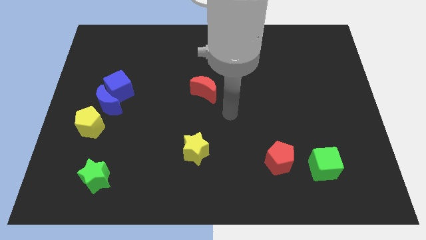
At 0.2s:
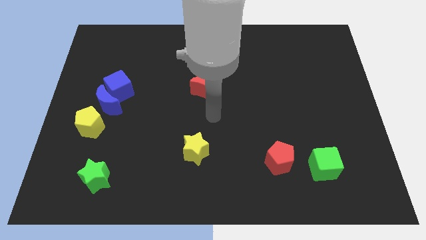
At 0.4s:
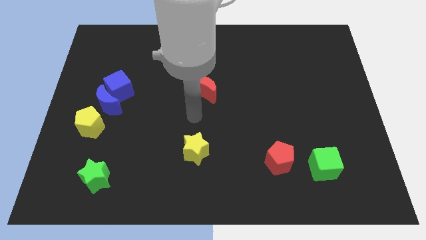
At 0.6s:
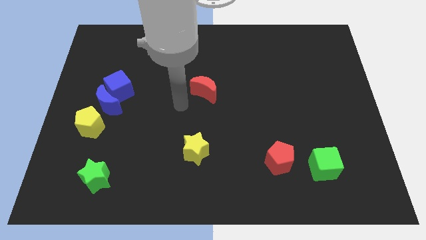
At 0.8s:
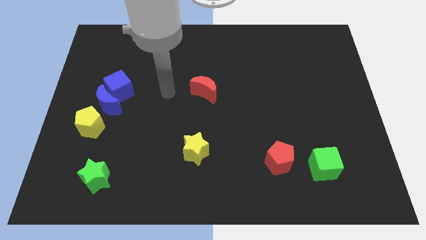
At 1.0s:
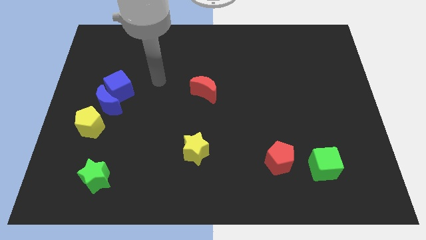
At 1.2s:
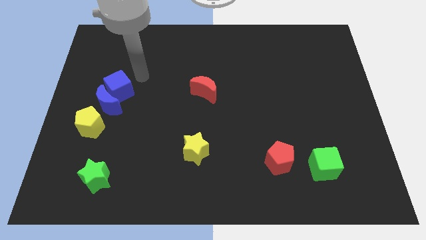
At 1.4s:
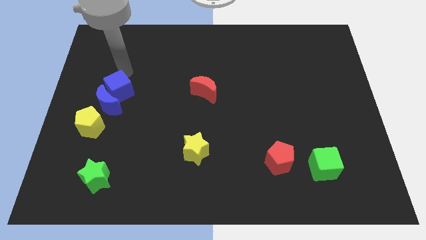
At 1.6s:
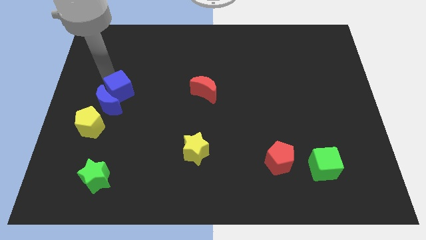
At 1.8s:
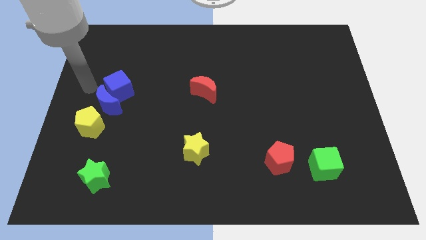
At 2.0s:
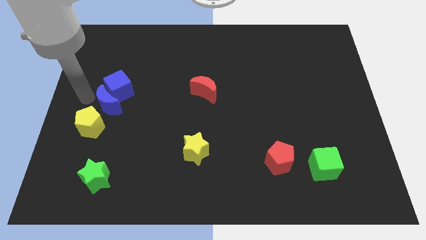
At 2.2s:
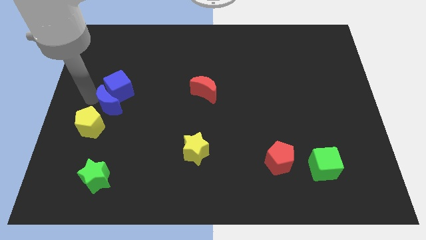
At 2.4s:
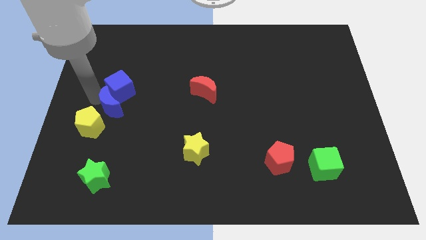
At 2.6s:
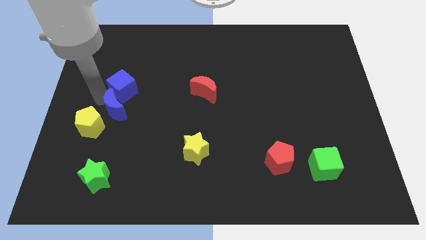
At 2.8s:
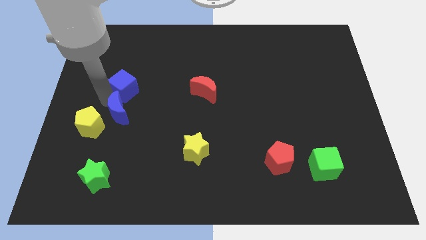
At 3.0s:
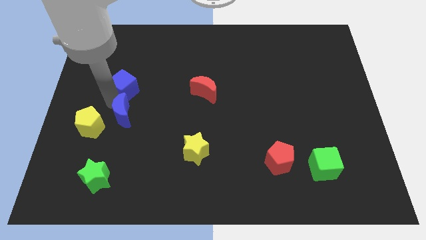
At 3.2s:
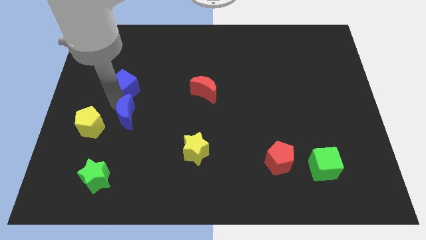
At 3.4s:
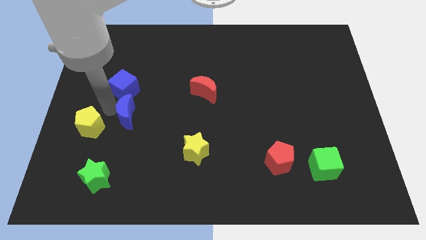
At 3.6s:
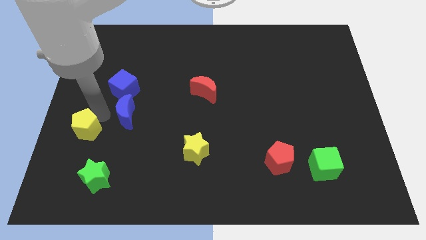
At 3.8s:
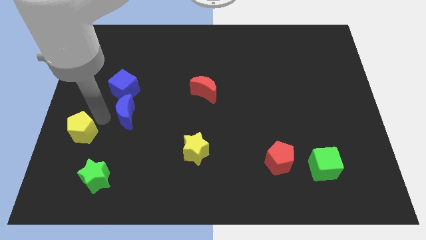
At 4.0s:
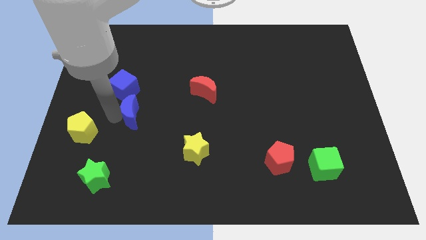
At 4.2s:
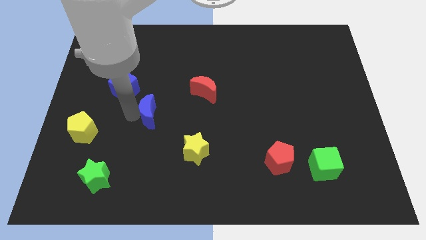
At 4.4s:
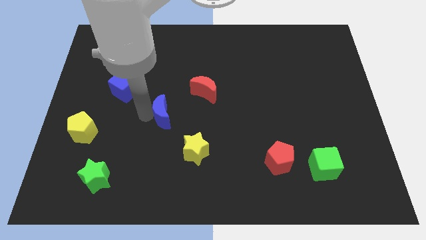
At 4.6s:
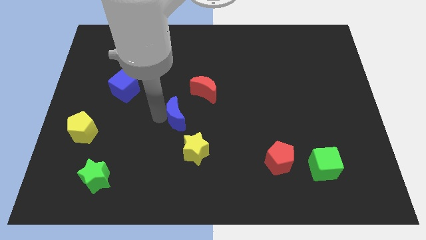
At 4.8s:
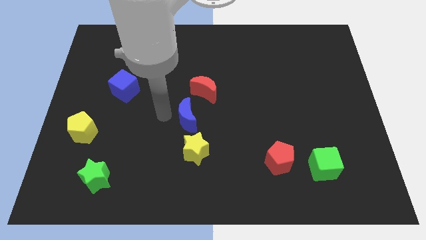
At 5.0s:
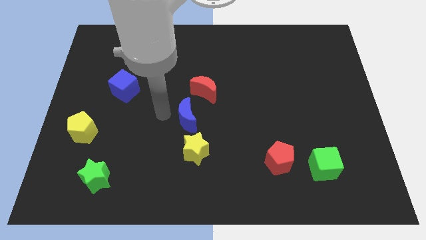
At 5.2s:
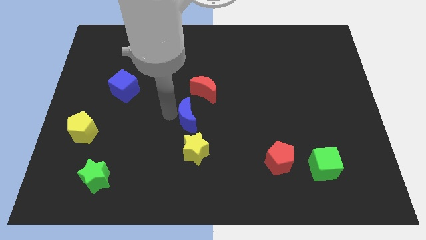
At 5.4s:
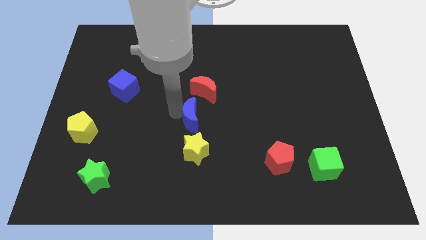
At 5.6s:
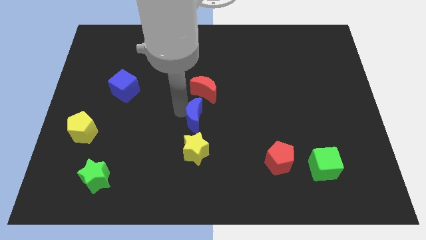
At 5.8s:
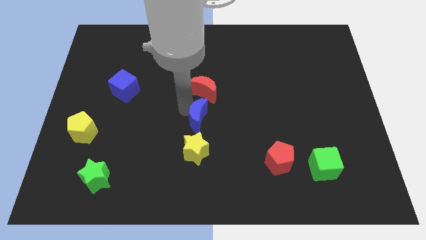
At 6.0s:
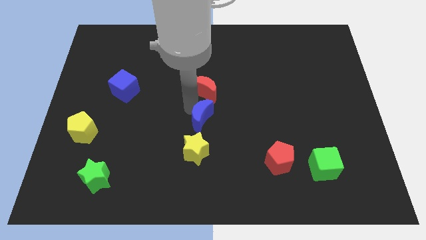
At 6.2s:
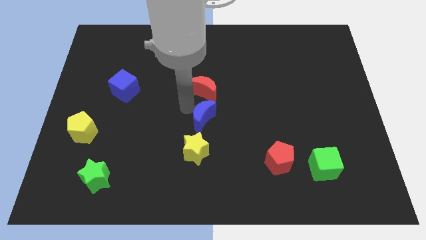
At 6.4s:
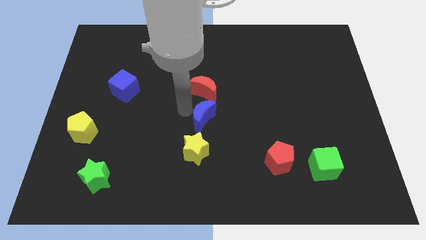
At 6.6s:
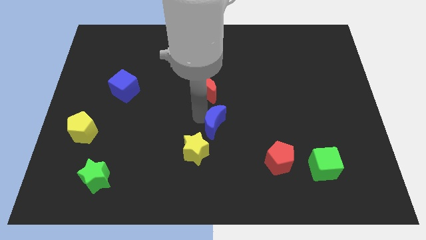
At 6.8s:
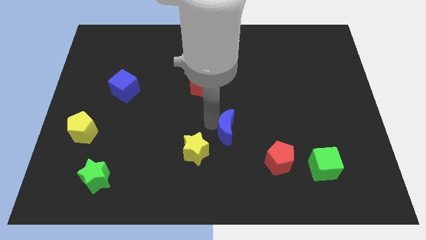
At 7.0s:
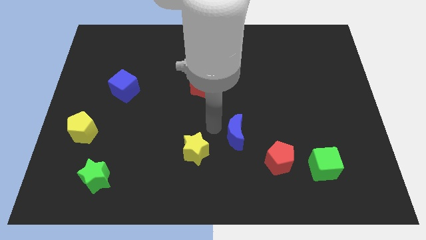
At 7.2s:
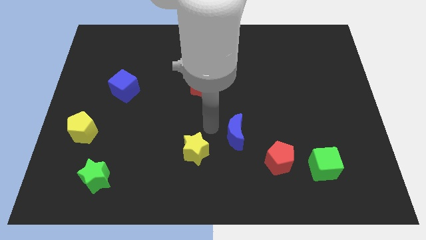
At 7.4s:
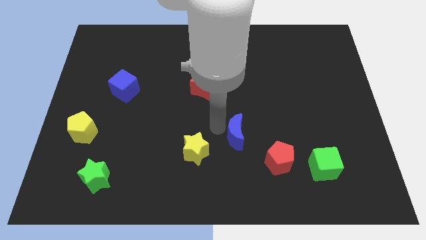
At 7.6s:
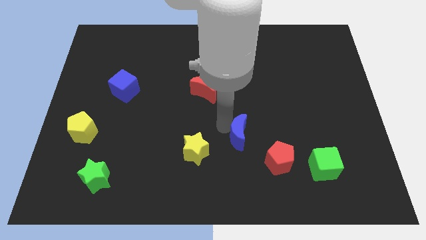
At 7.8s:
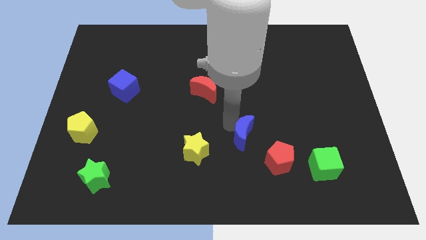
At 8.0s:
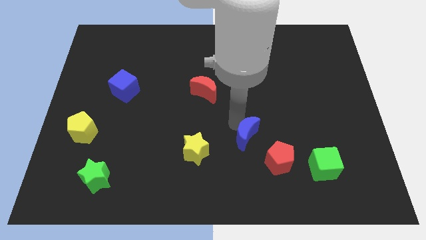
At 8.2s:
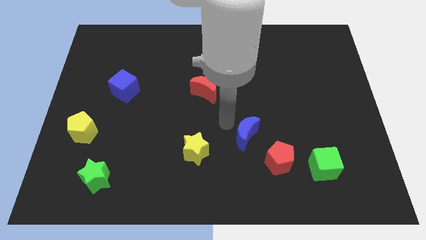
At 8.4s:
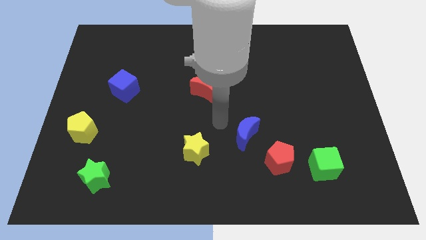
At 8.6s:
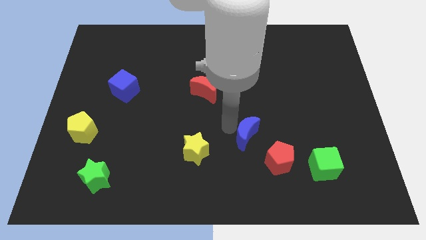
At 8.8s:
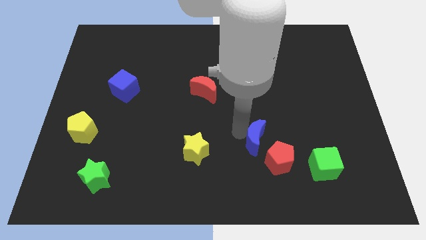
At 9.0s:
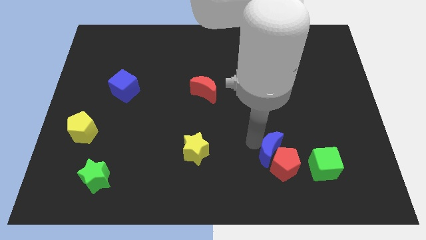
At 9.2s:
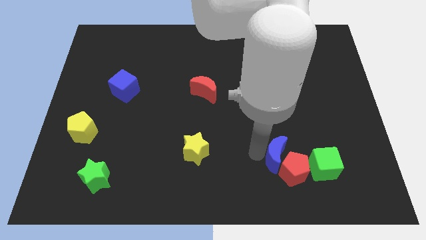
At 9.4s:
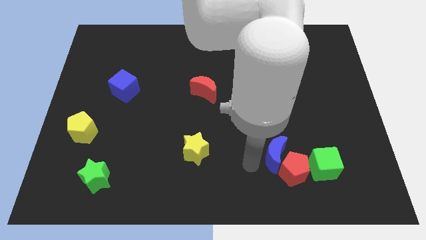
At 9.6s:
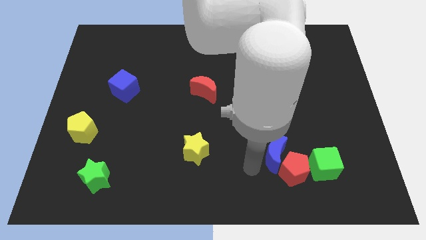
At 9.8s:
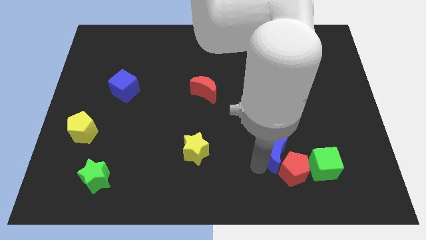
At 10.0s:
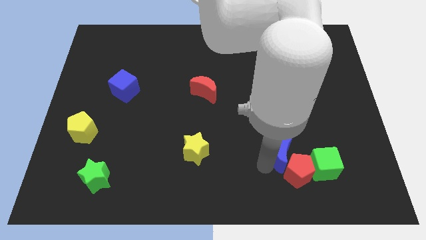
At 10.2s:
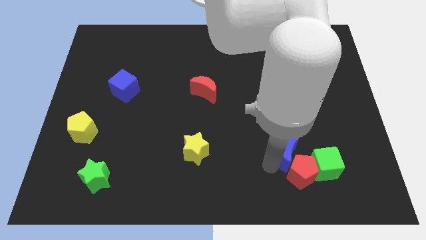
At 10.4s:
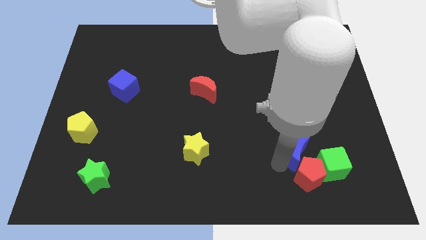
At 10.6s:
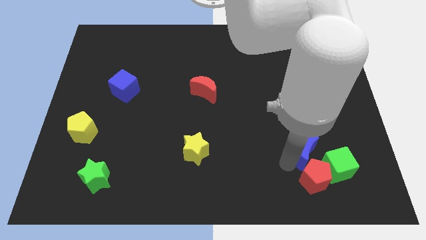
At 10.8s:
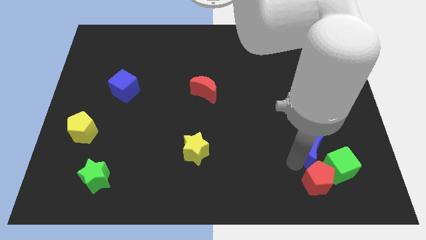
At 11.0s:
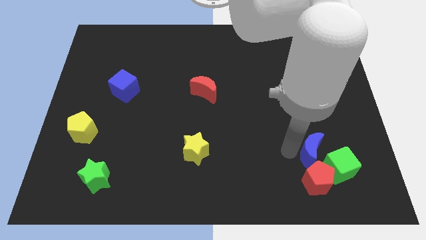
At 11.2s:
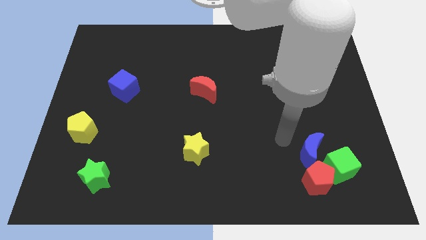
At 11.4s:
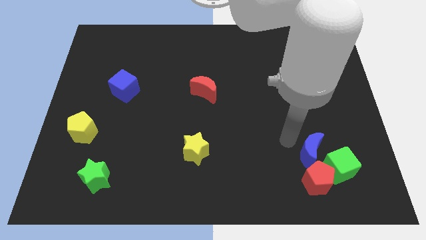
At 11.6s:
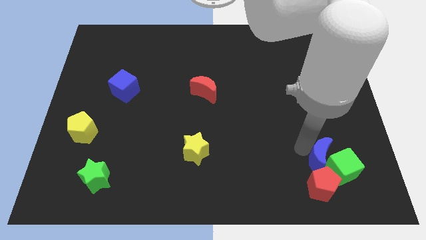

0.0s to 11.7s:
push the blue moon close to the green cube

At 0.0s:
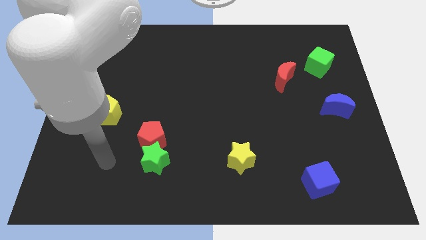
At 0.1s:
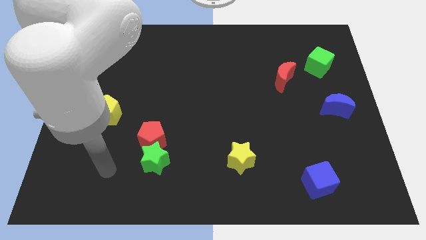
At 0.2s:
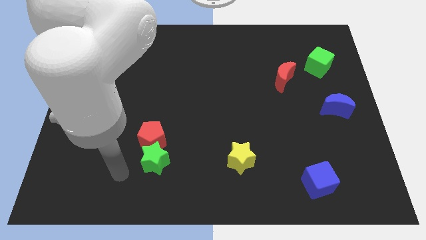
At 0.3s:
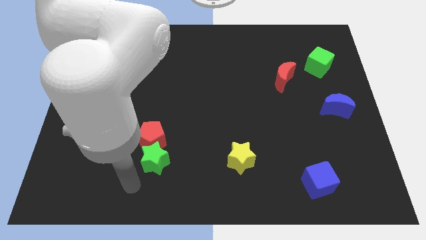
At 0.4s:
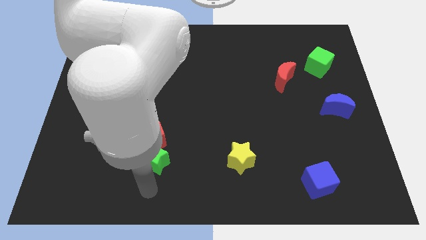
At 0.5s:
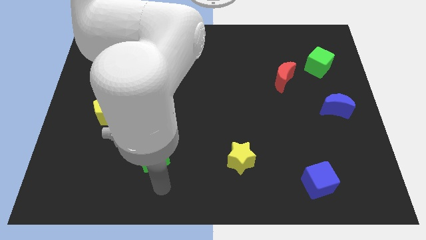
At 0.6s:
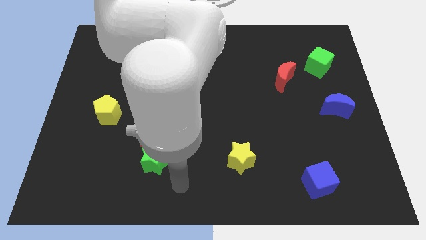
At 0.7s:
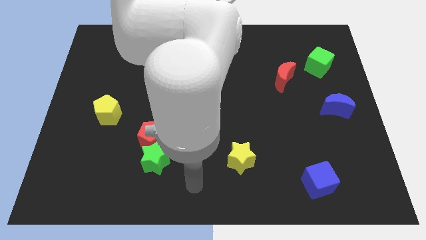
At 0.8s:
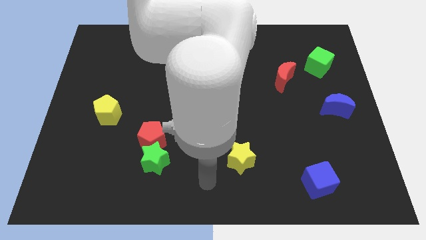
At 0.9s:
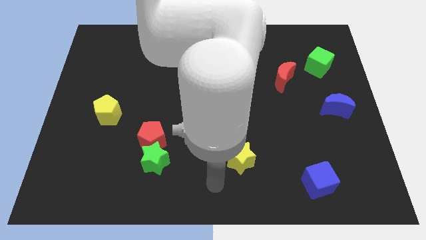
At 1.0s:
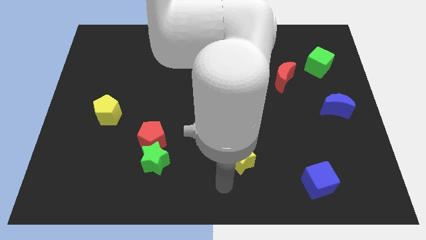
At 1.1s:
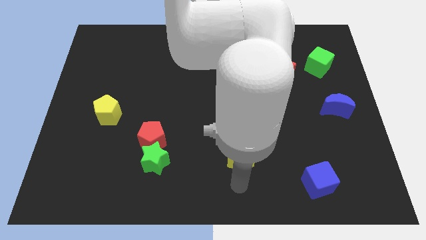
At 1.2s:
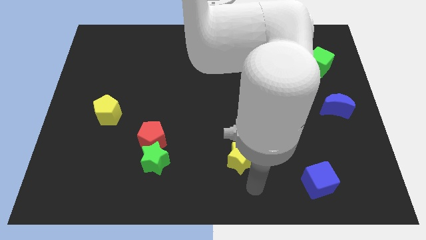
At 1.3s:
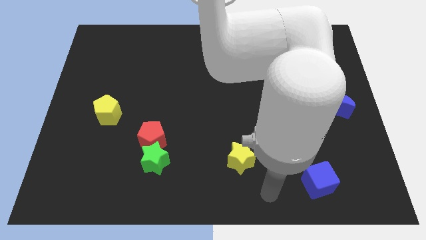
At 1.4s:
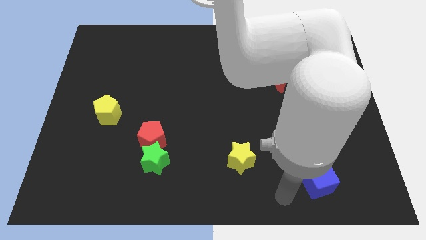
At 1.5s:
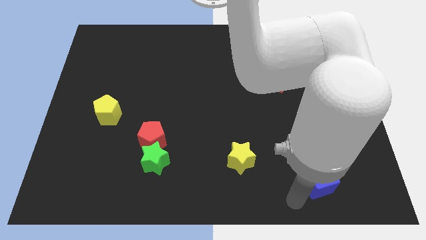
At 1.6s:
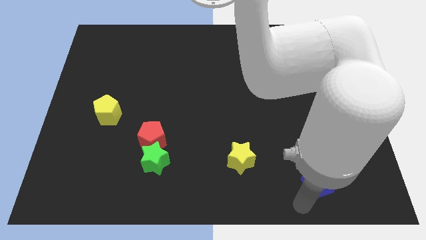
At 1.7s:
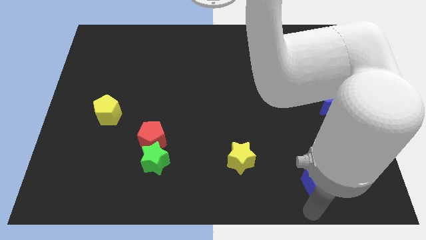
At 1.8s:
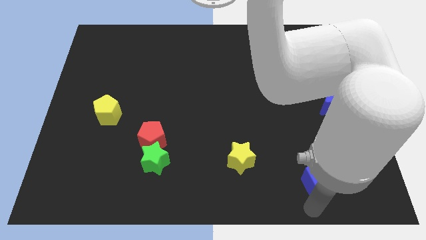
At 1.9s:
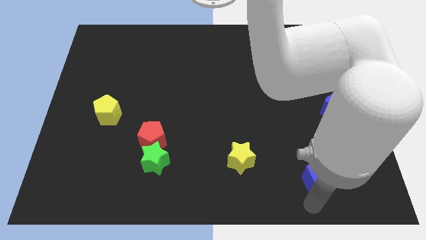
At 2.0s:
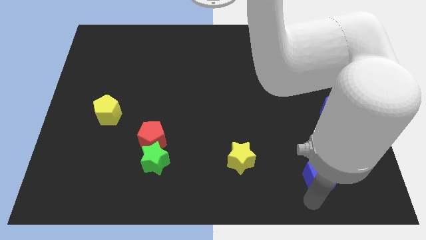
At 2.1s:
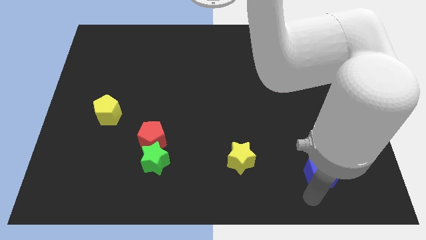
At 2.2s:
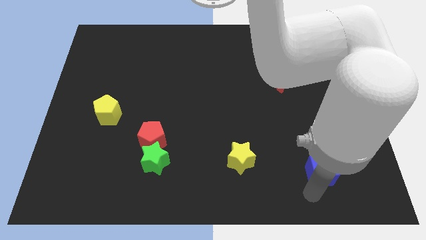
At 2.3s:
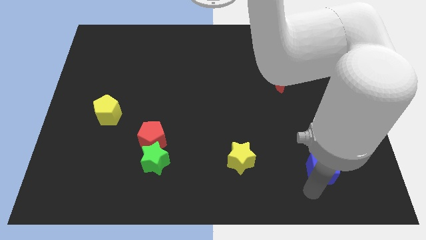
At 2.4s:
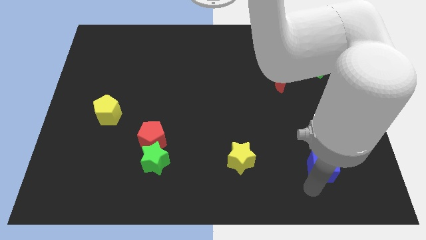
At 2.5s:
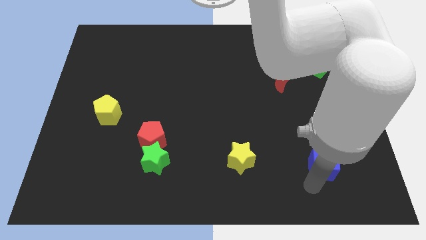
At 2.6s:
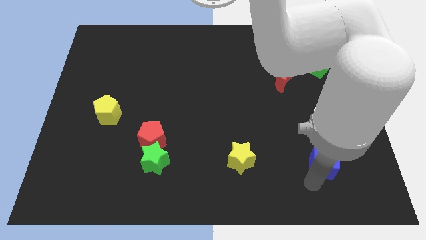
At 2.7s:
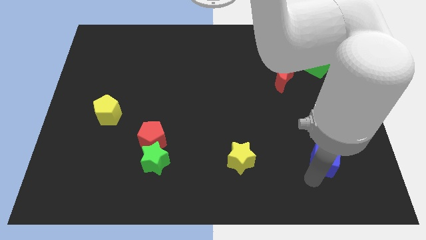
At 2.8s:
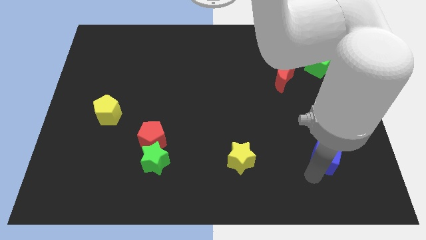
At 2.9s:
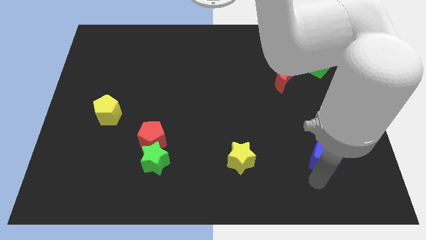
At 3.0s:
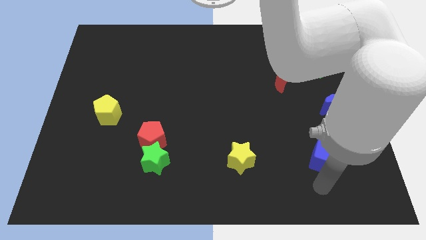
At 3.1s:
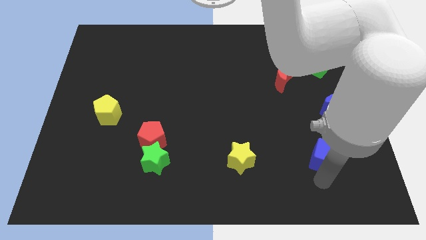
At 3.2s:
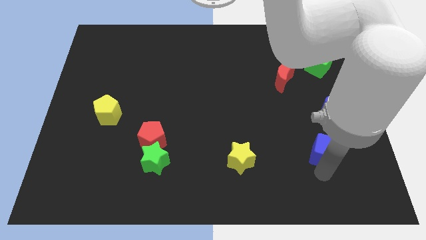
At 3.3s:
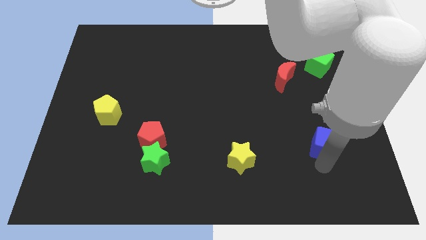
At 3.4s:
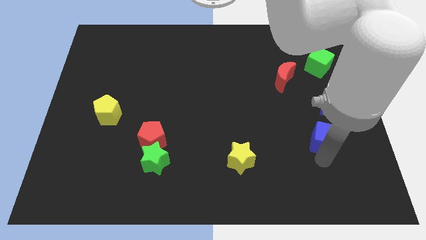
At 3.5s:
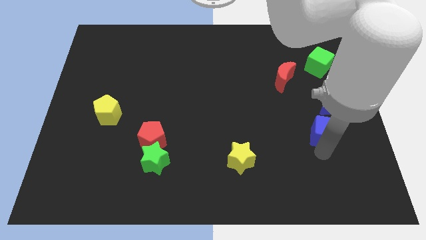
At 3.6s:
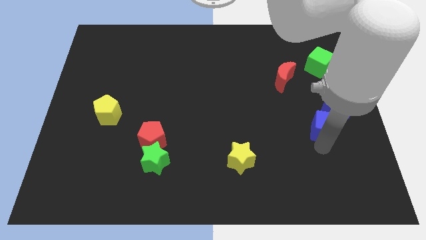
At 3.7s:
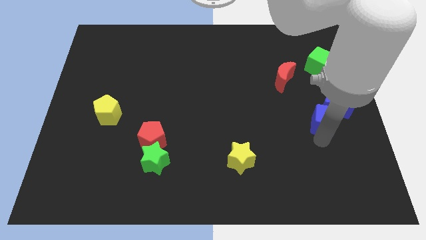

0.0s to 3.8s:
move the blue cube next to the blue moon
